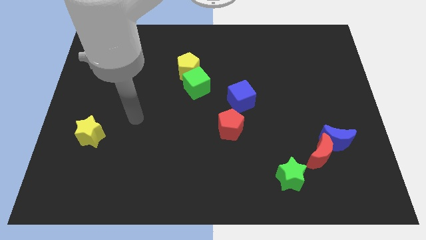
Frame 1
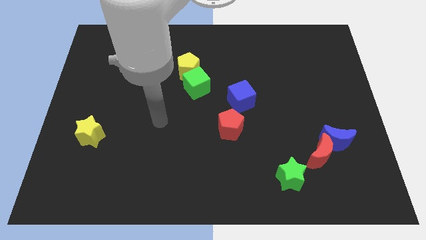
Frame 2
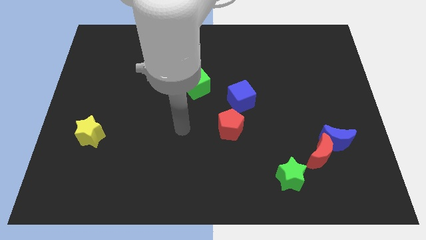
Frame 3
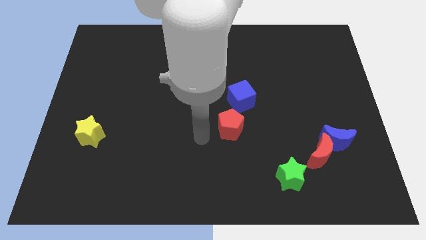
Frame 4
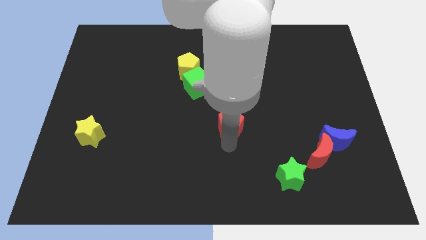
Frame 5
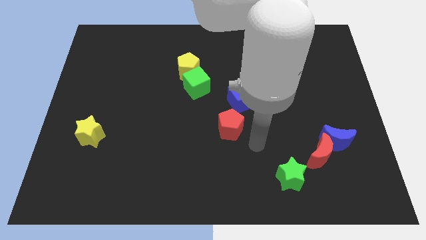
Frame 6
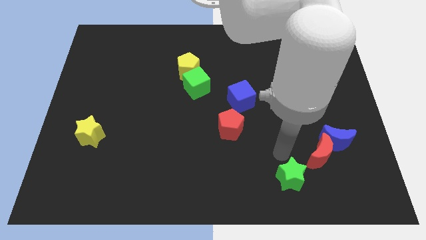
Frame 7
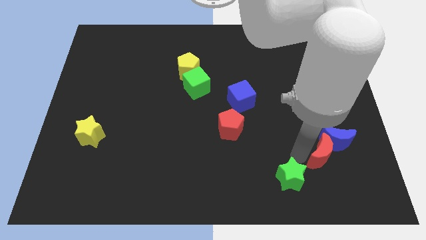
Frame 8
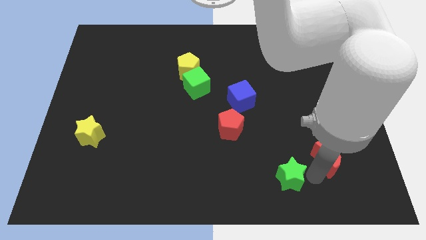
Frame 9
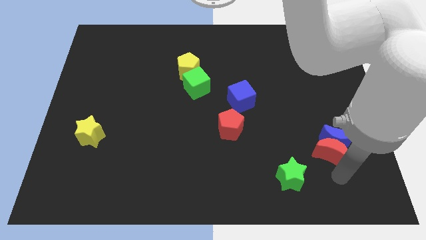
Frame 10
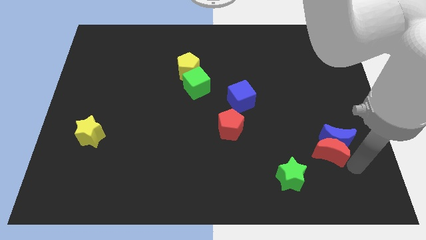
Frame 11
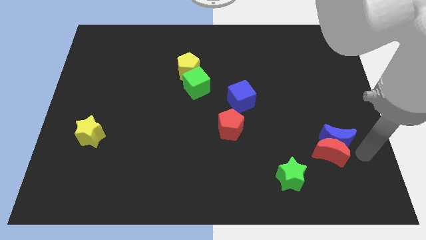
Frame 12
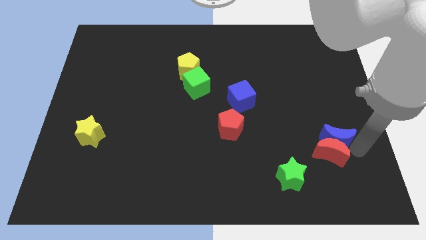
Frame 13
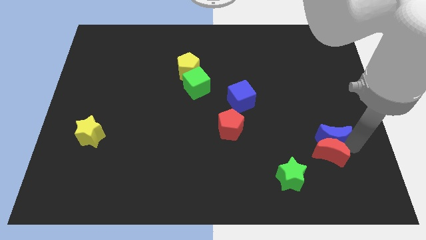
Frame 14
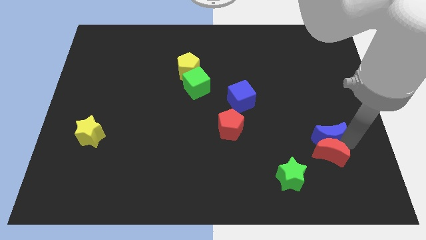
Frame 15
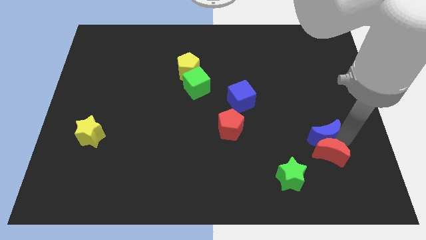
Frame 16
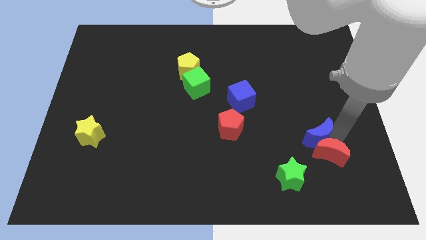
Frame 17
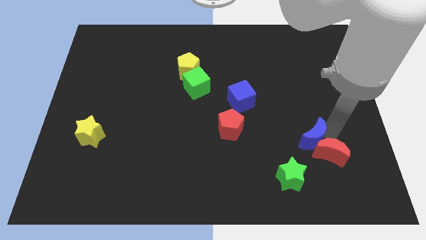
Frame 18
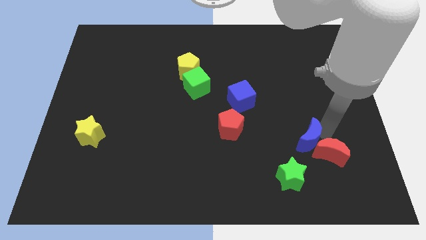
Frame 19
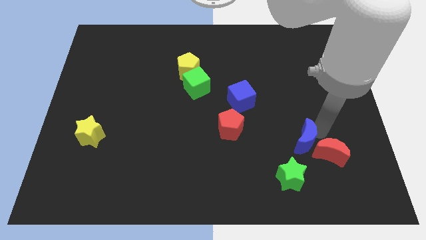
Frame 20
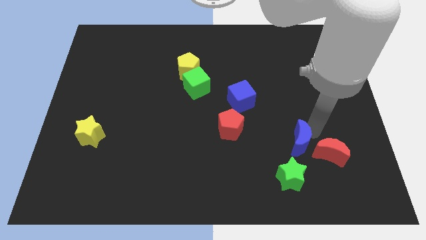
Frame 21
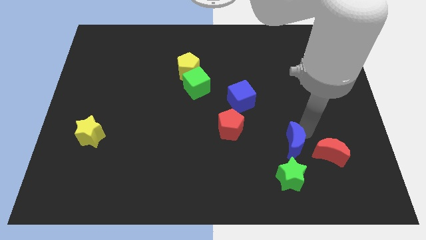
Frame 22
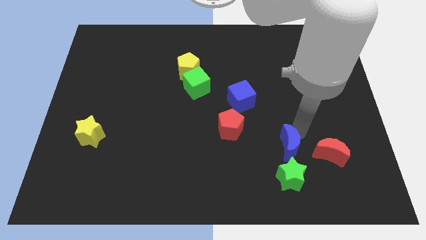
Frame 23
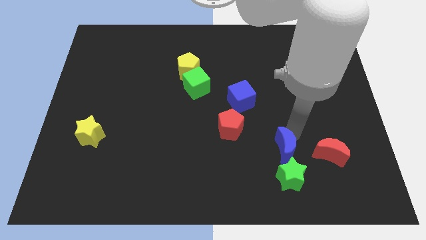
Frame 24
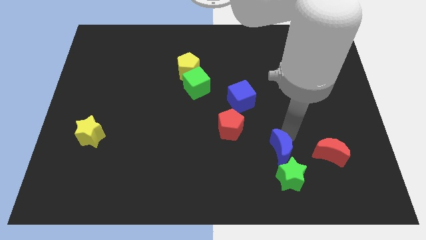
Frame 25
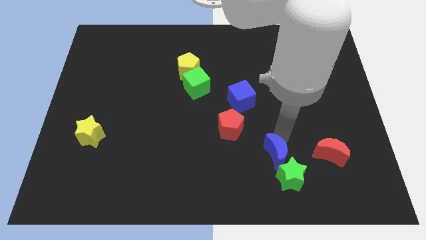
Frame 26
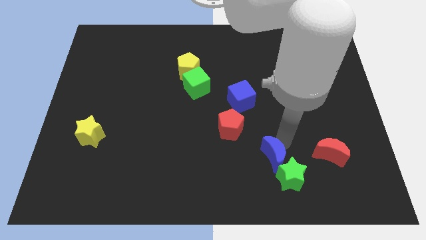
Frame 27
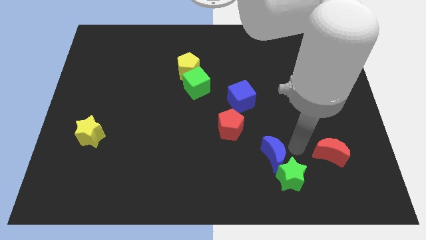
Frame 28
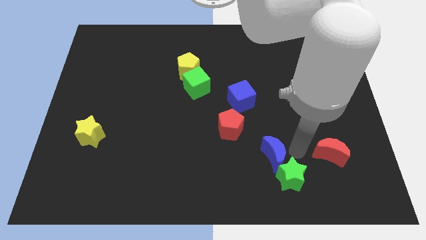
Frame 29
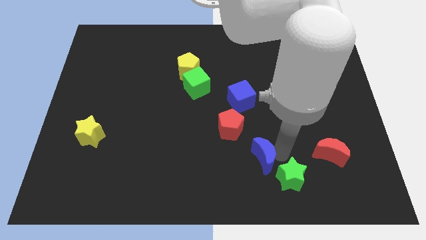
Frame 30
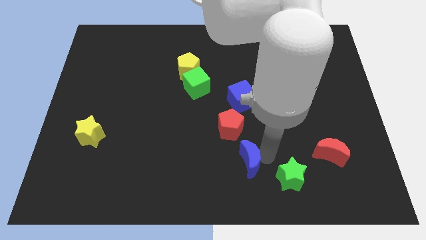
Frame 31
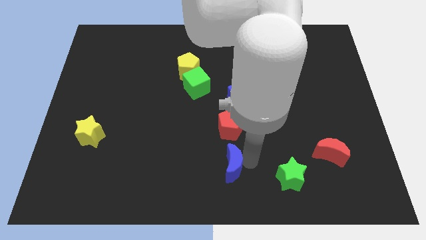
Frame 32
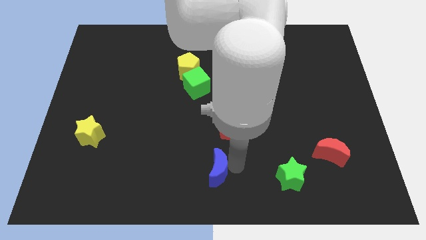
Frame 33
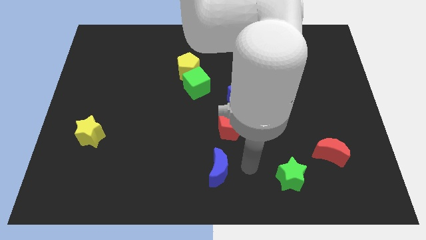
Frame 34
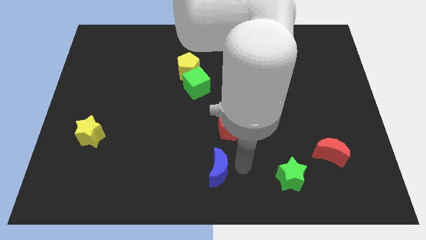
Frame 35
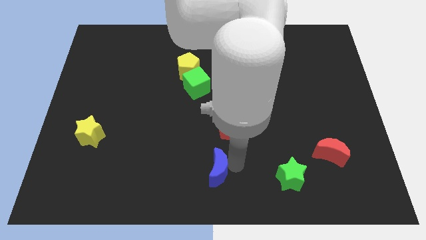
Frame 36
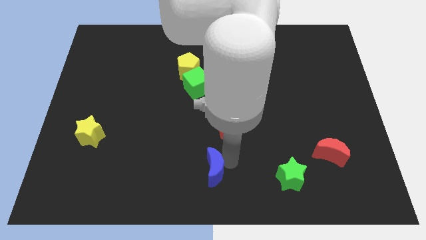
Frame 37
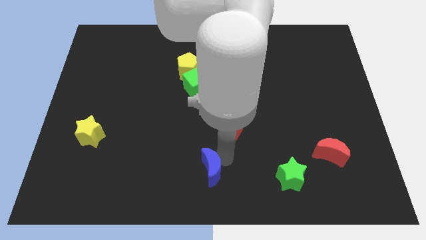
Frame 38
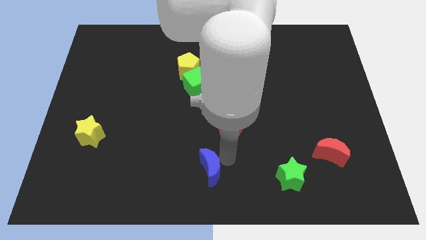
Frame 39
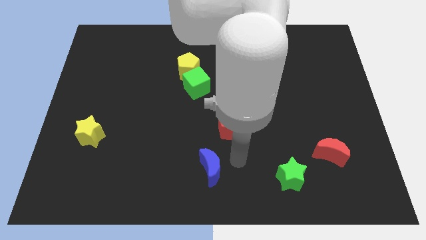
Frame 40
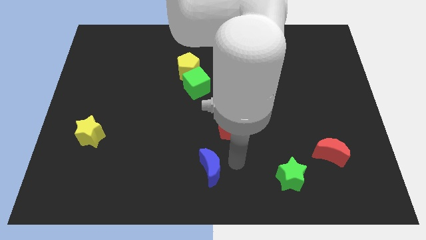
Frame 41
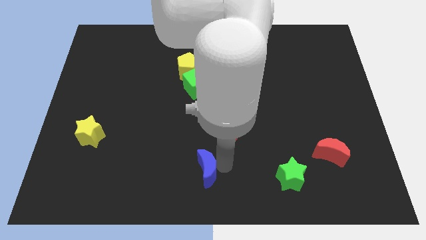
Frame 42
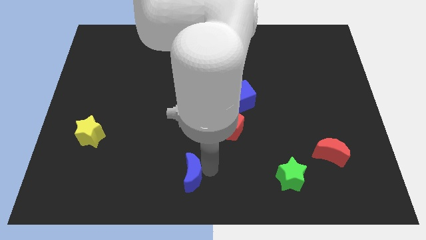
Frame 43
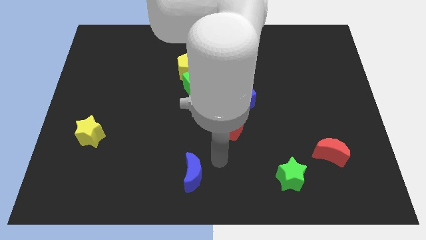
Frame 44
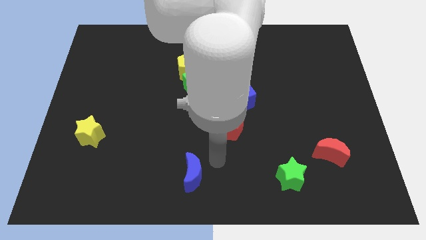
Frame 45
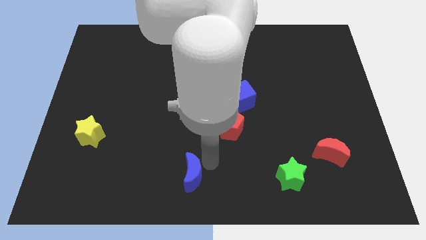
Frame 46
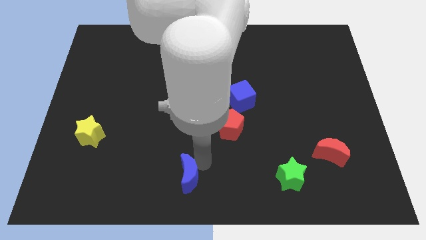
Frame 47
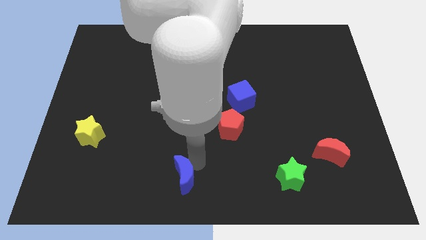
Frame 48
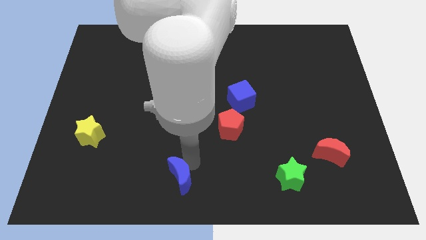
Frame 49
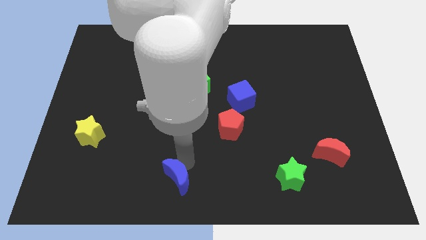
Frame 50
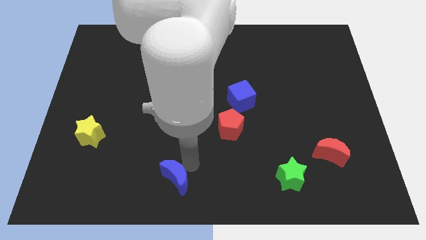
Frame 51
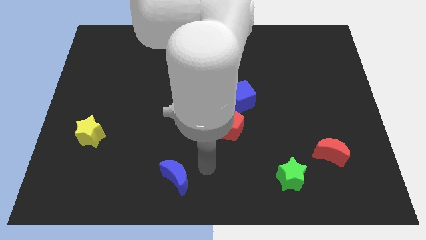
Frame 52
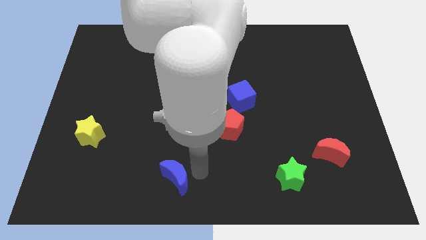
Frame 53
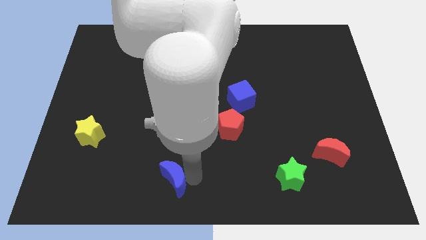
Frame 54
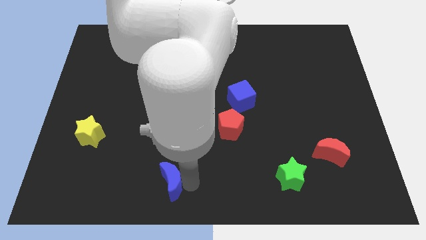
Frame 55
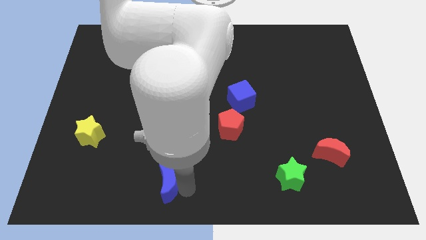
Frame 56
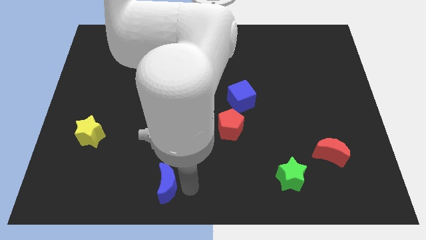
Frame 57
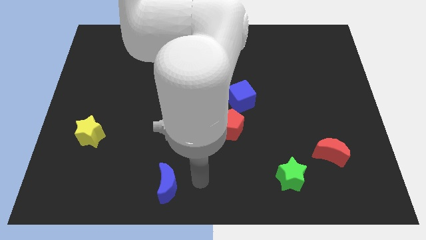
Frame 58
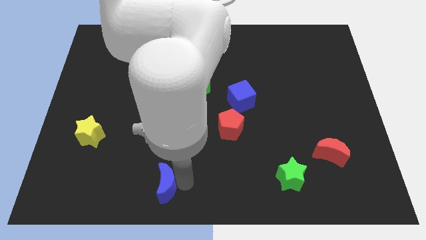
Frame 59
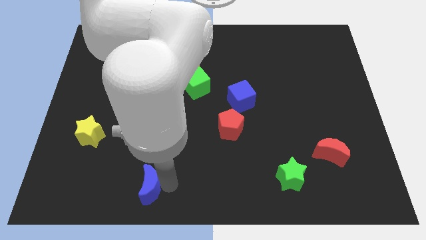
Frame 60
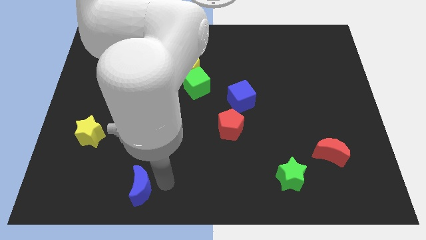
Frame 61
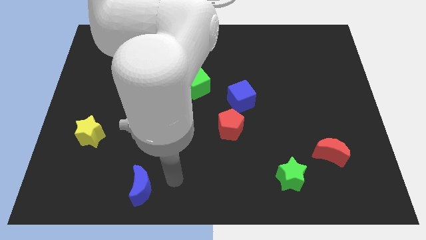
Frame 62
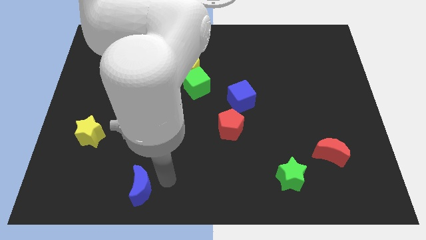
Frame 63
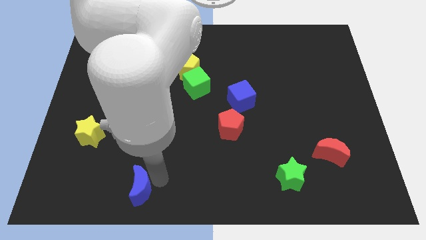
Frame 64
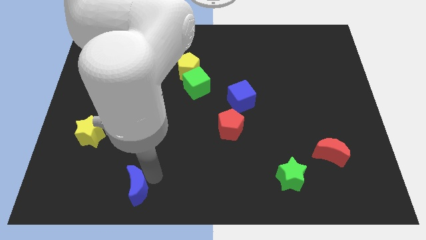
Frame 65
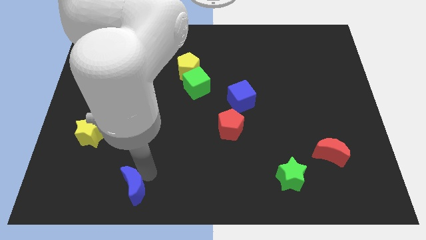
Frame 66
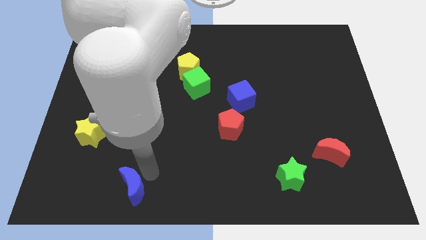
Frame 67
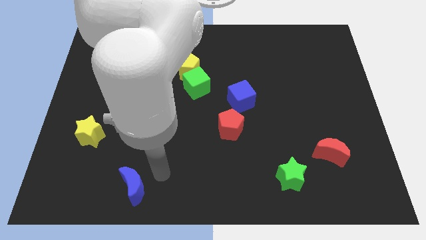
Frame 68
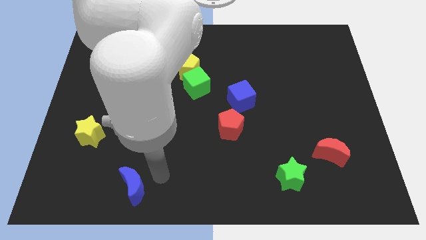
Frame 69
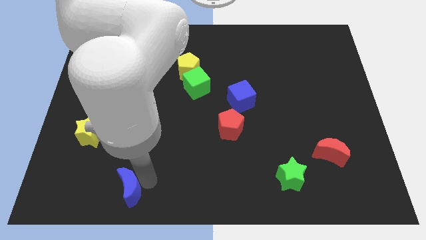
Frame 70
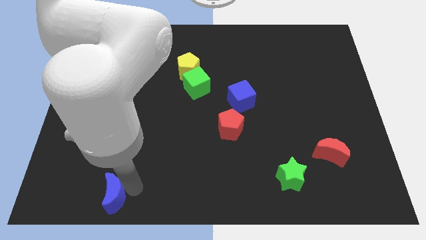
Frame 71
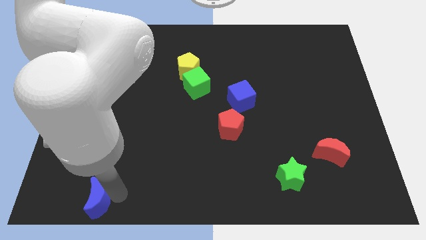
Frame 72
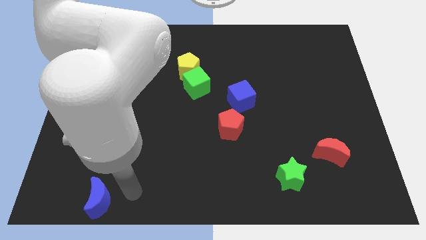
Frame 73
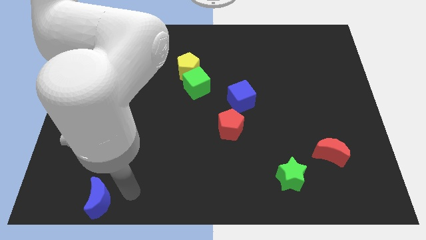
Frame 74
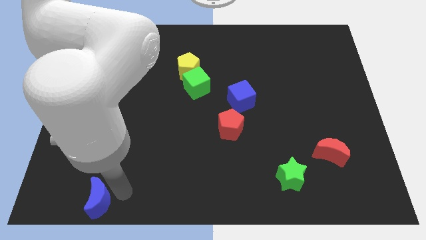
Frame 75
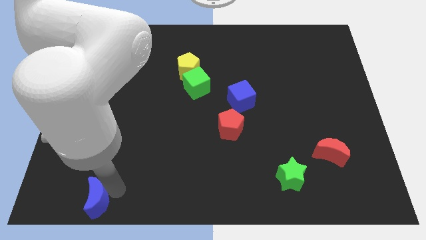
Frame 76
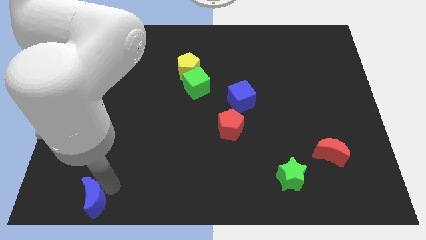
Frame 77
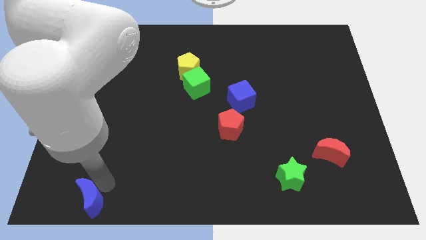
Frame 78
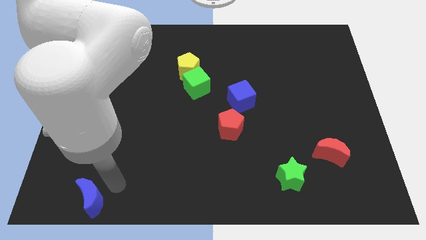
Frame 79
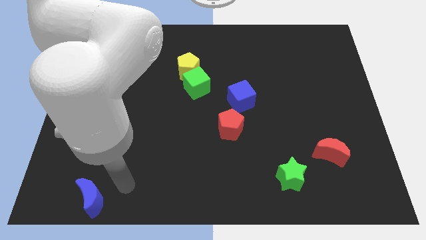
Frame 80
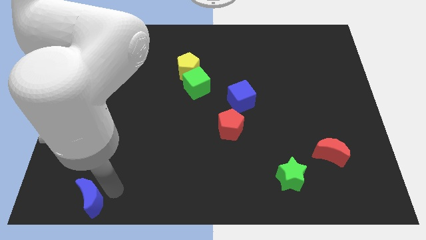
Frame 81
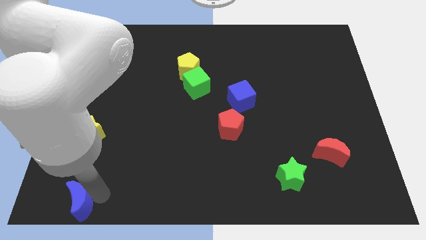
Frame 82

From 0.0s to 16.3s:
put the blue moon to the bottom left
